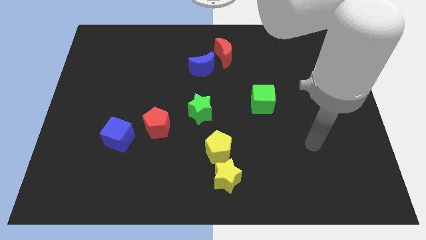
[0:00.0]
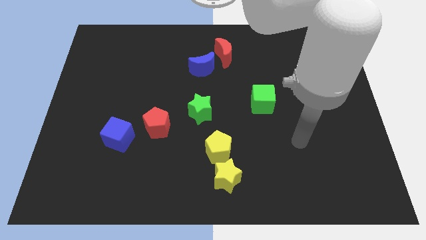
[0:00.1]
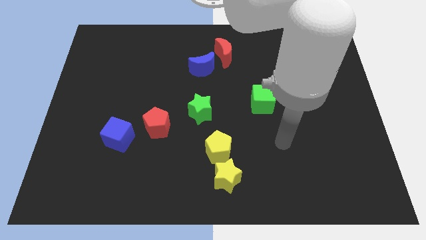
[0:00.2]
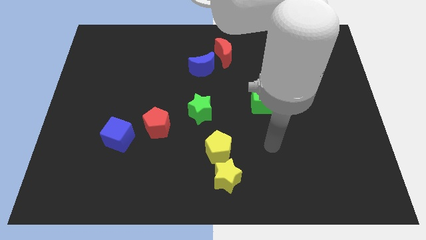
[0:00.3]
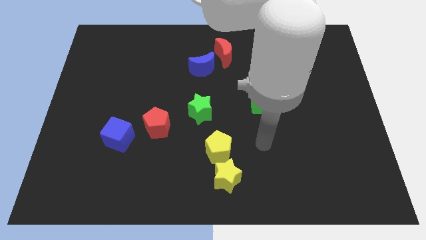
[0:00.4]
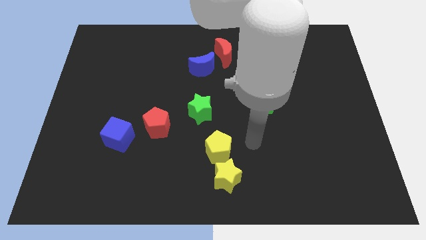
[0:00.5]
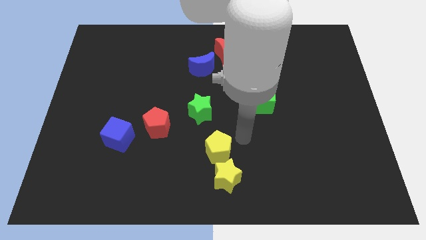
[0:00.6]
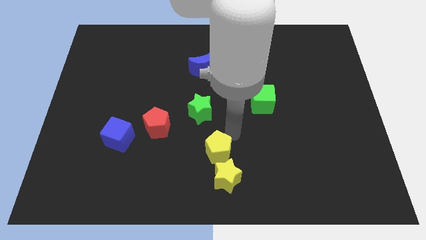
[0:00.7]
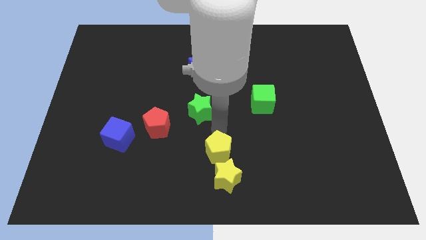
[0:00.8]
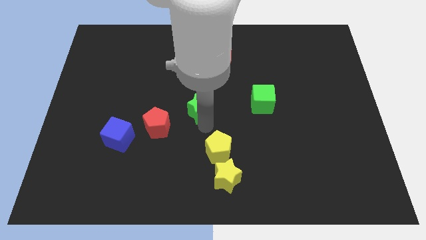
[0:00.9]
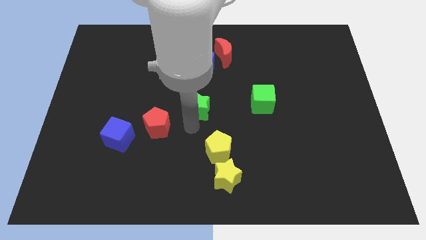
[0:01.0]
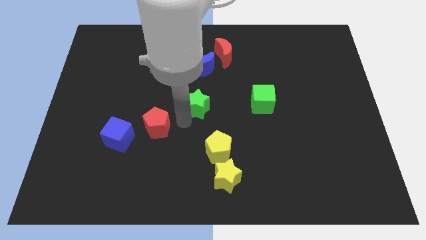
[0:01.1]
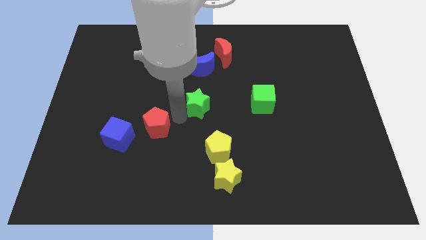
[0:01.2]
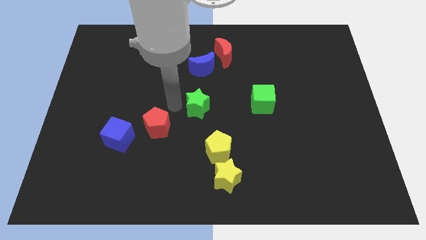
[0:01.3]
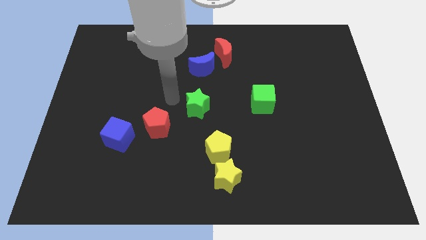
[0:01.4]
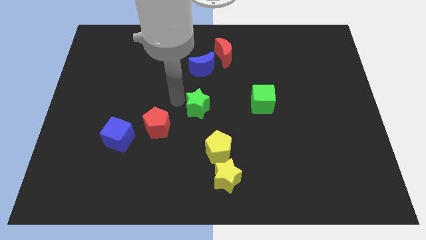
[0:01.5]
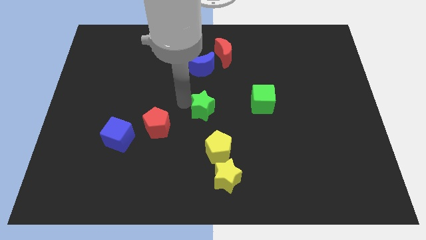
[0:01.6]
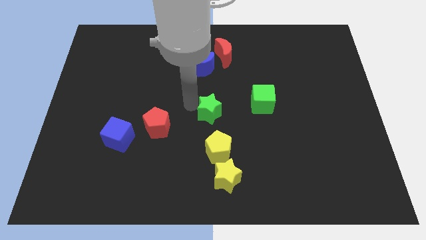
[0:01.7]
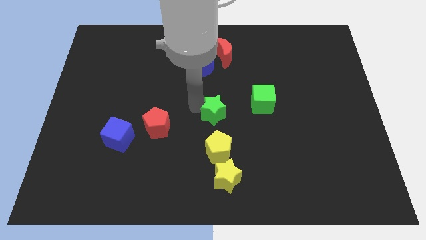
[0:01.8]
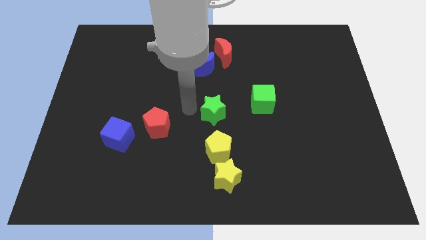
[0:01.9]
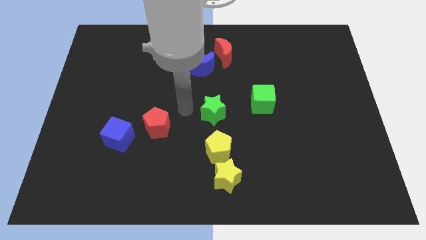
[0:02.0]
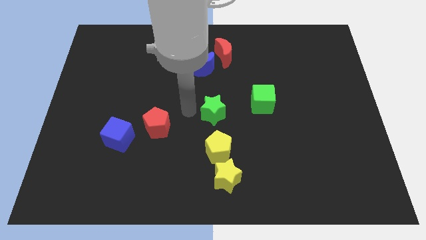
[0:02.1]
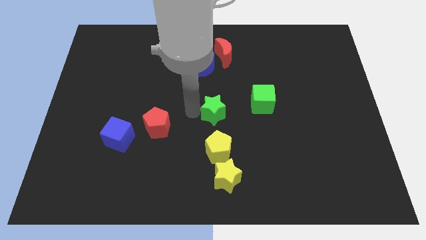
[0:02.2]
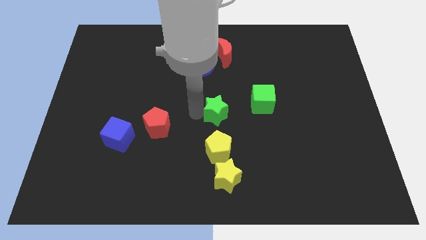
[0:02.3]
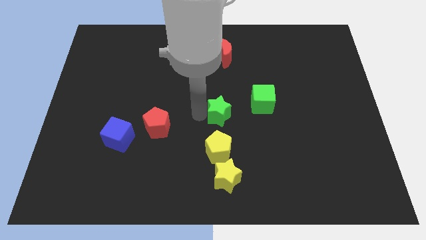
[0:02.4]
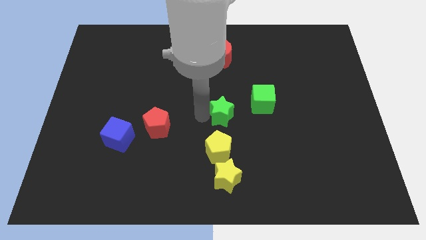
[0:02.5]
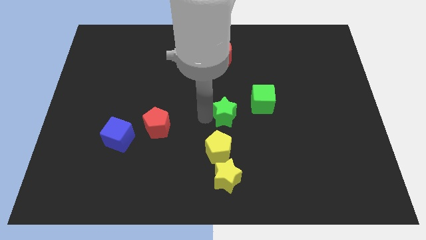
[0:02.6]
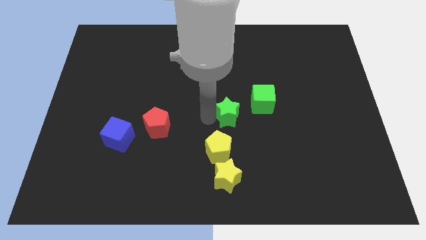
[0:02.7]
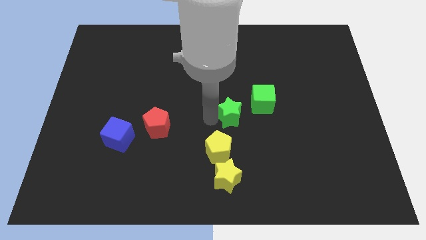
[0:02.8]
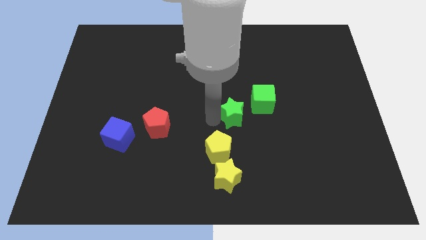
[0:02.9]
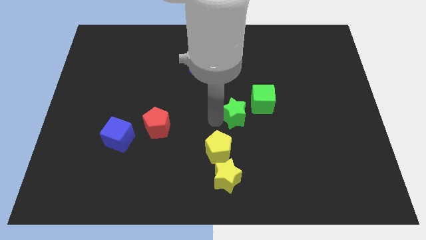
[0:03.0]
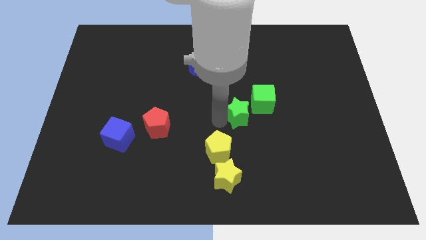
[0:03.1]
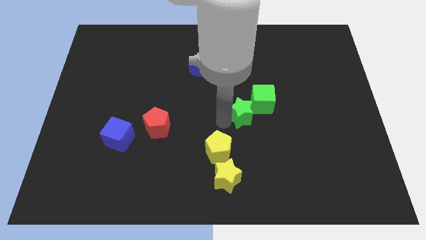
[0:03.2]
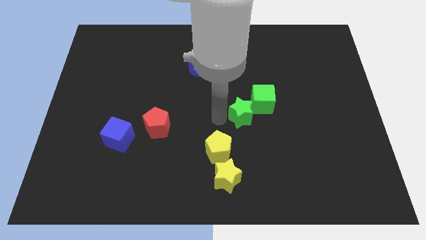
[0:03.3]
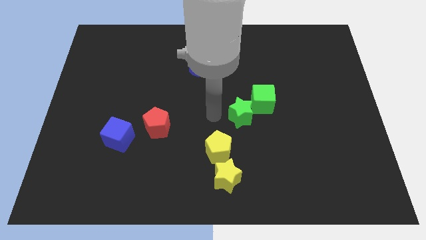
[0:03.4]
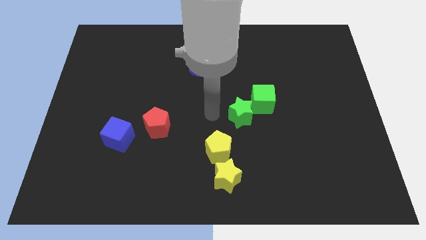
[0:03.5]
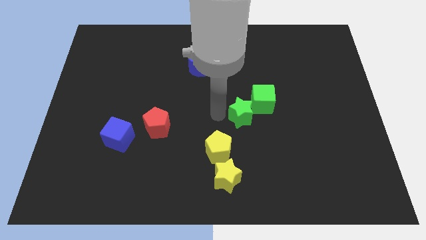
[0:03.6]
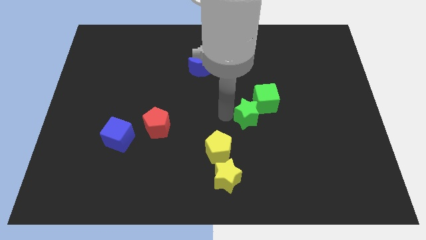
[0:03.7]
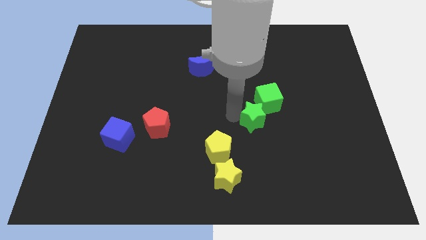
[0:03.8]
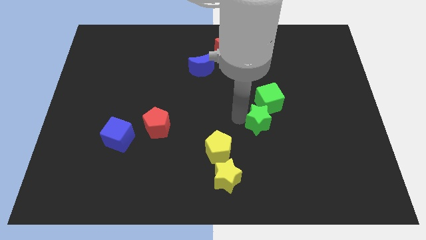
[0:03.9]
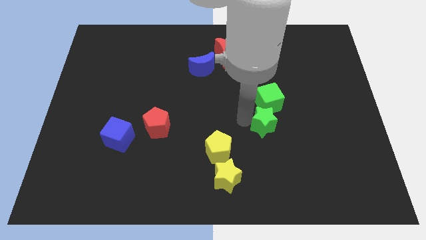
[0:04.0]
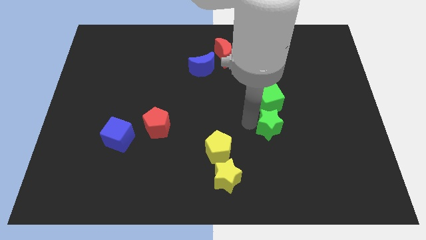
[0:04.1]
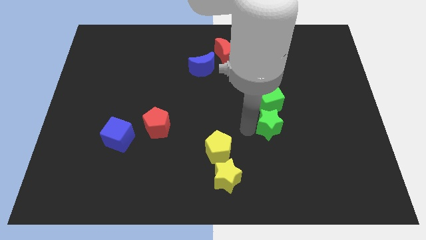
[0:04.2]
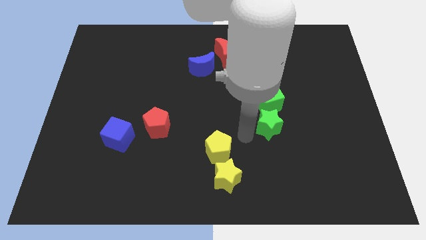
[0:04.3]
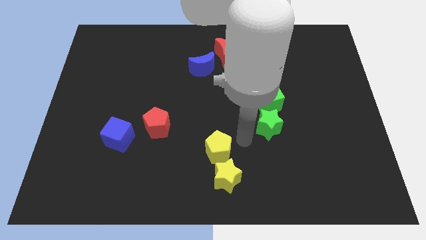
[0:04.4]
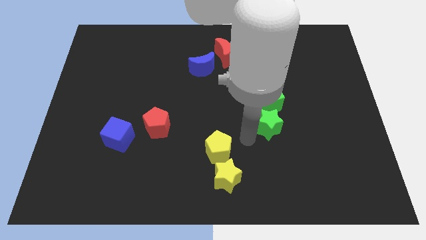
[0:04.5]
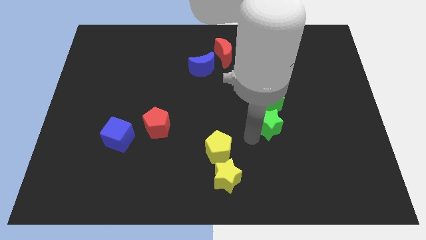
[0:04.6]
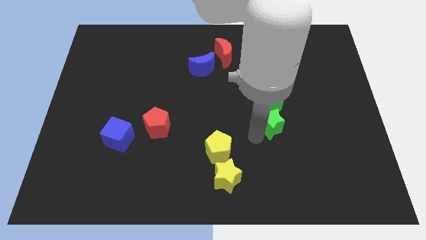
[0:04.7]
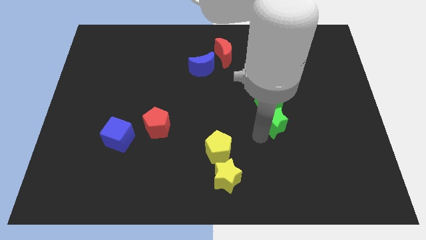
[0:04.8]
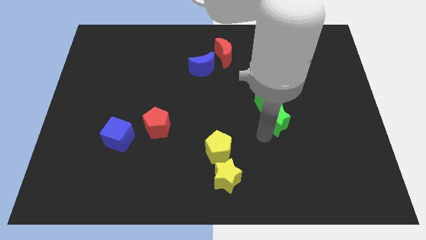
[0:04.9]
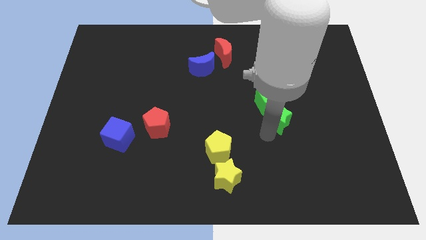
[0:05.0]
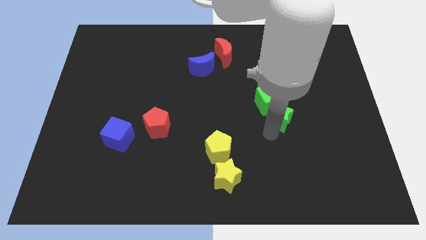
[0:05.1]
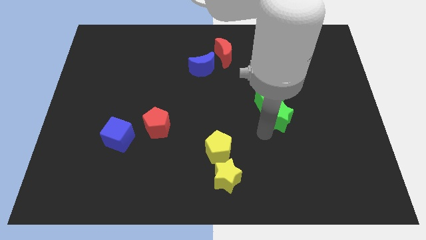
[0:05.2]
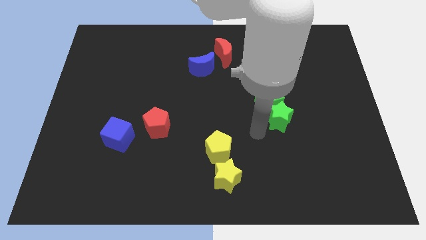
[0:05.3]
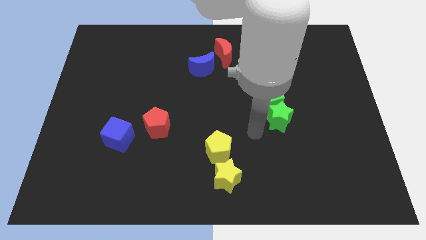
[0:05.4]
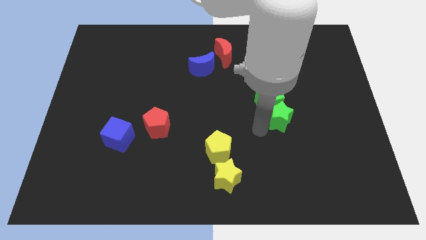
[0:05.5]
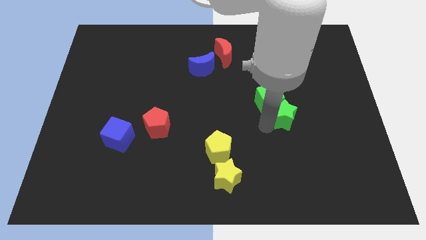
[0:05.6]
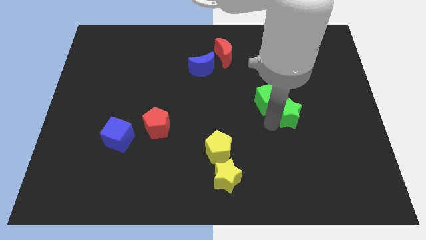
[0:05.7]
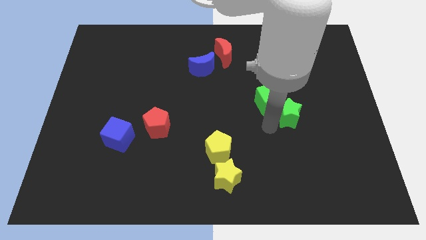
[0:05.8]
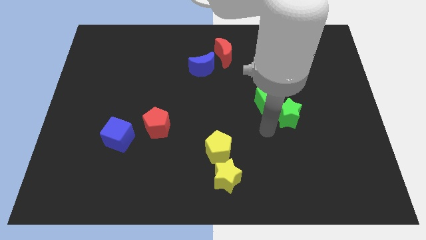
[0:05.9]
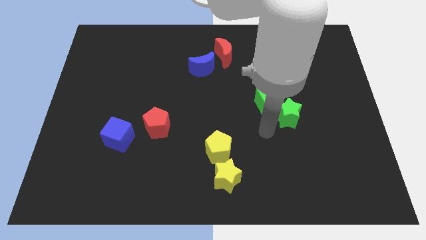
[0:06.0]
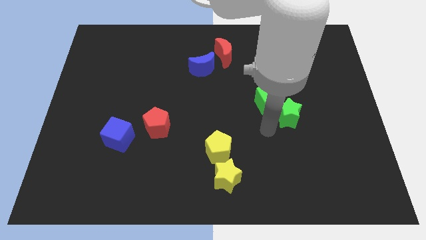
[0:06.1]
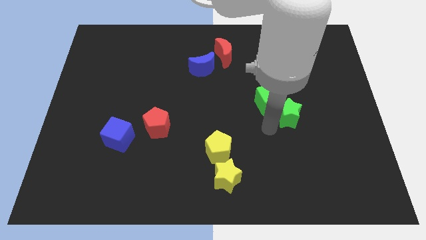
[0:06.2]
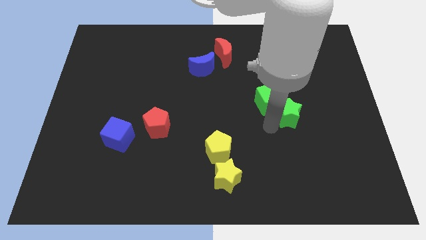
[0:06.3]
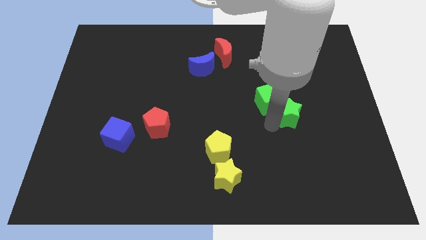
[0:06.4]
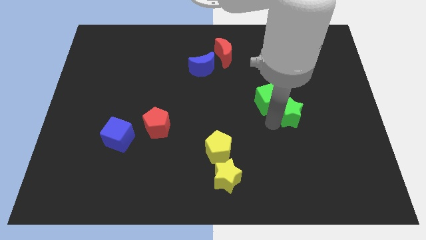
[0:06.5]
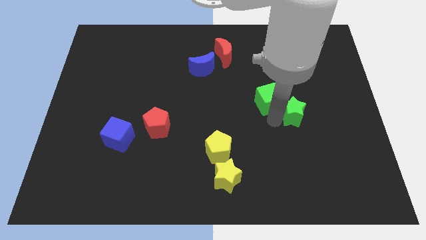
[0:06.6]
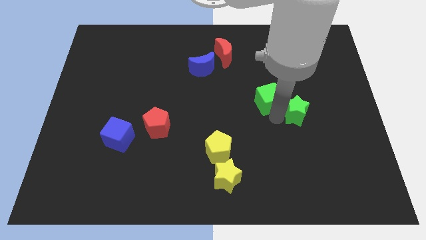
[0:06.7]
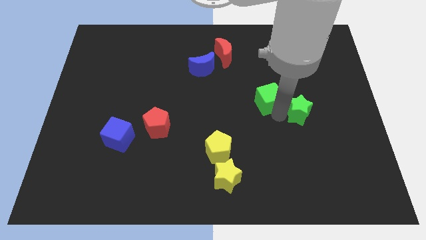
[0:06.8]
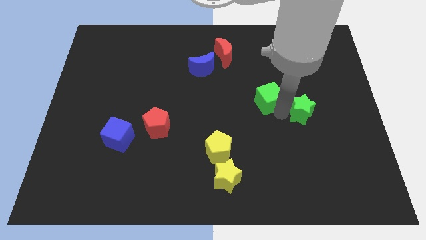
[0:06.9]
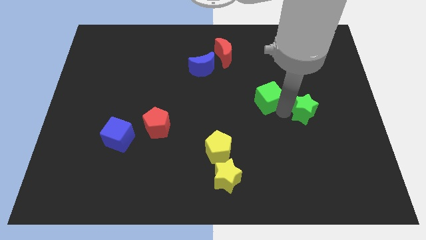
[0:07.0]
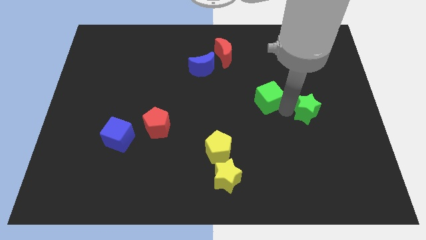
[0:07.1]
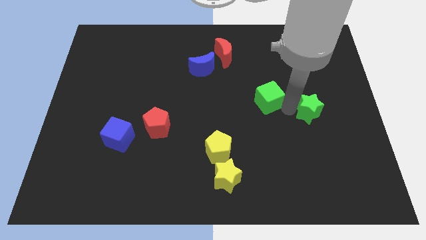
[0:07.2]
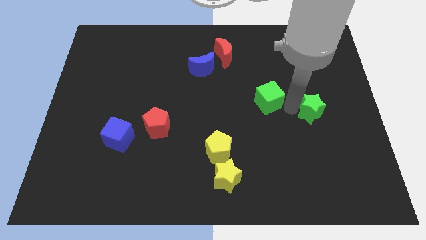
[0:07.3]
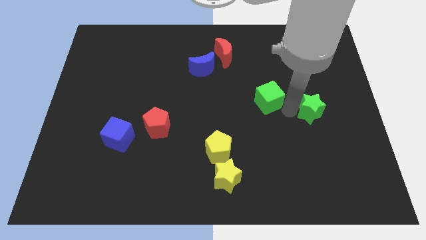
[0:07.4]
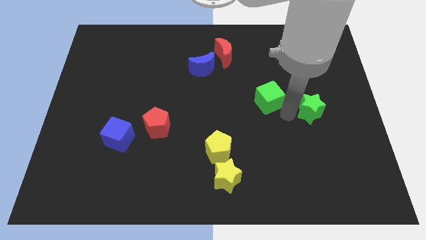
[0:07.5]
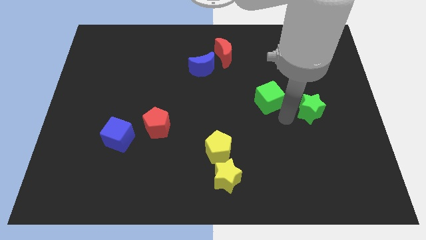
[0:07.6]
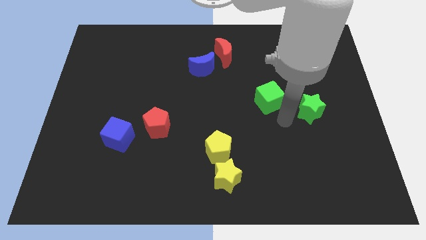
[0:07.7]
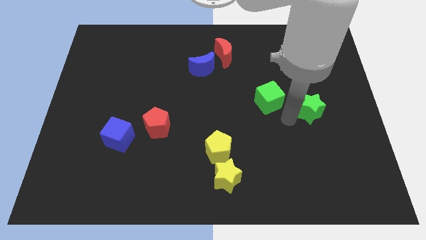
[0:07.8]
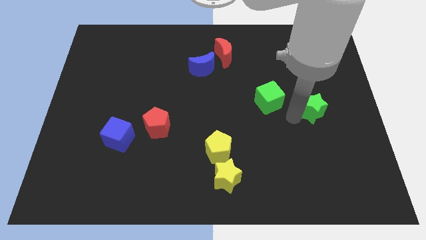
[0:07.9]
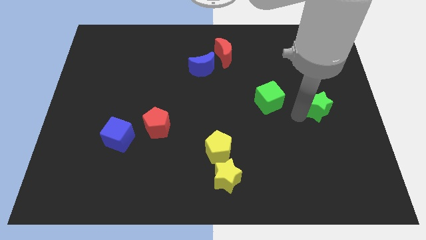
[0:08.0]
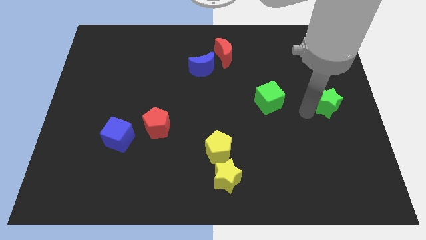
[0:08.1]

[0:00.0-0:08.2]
move the green star to the right side
